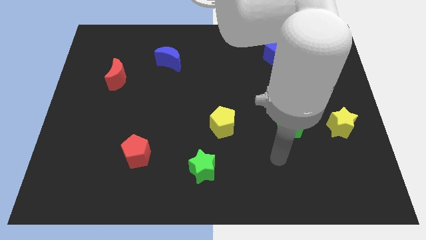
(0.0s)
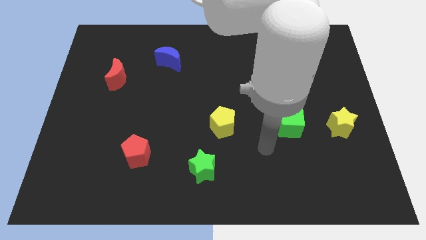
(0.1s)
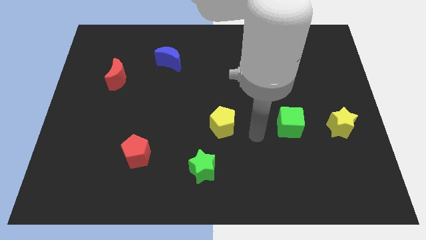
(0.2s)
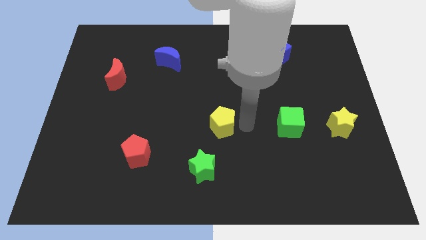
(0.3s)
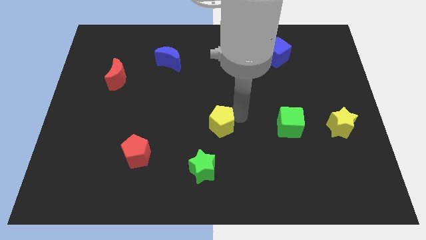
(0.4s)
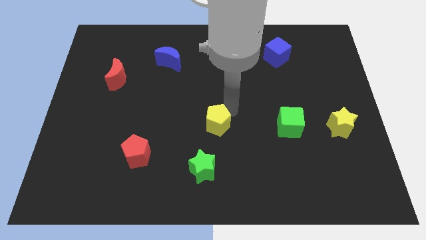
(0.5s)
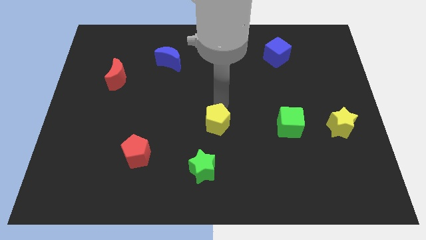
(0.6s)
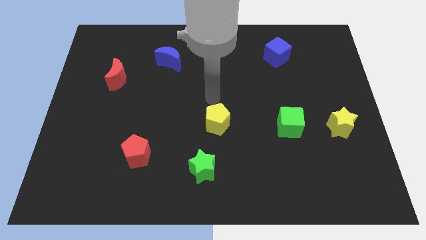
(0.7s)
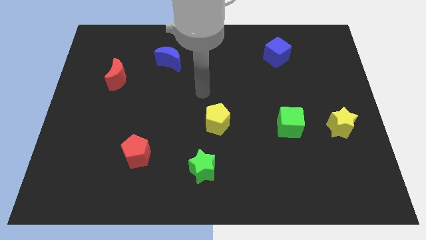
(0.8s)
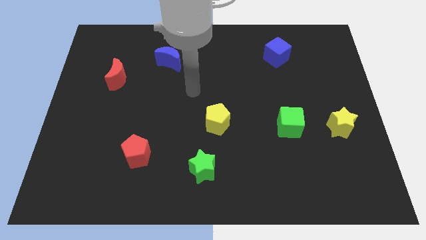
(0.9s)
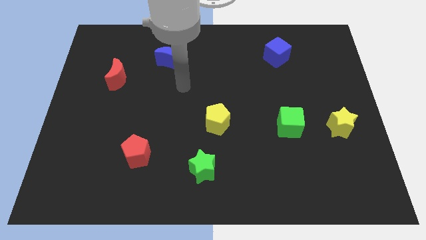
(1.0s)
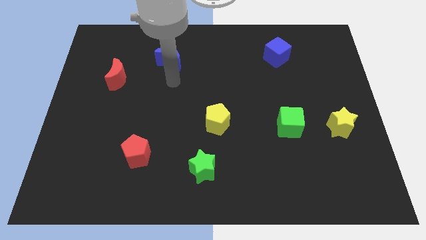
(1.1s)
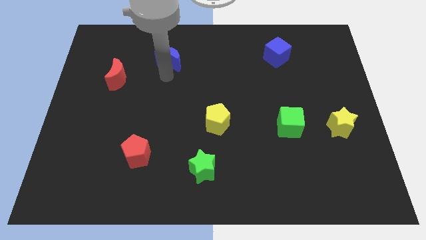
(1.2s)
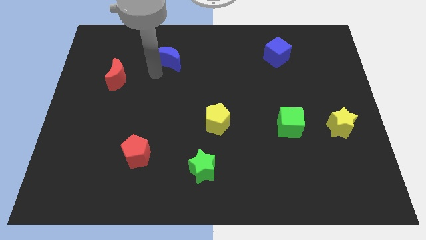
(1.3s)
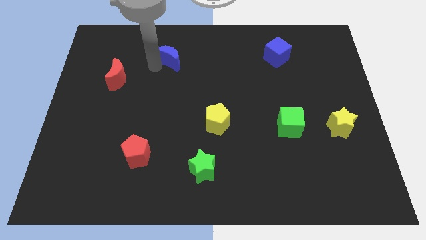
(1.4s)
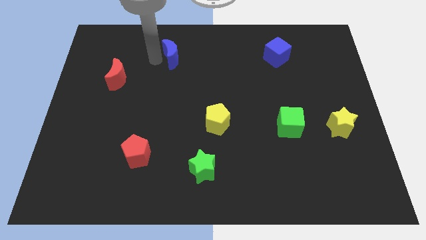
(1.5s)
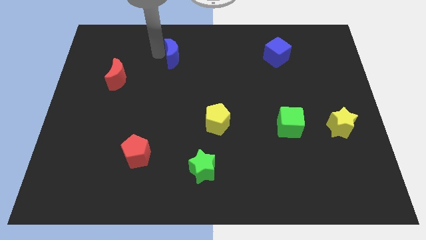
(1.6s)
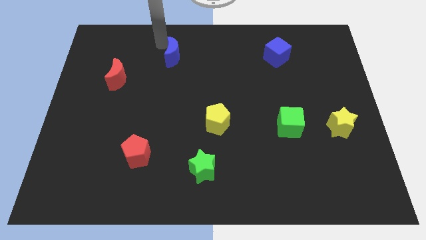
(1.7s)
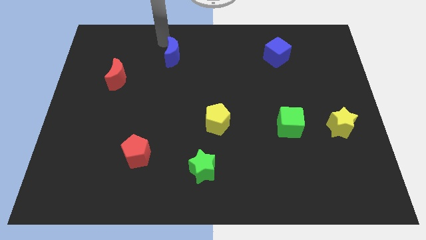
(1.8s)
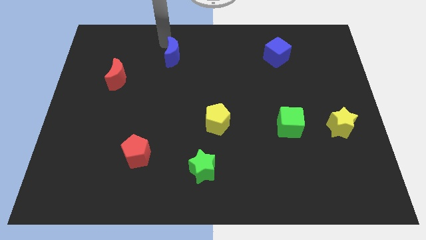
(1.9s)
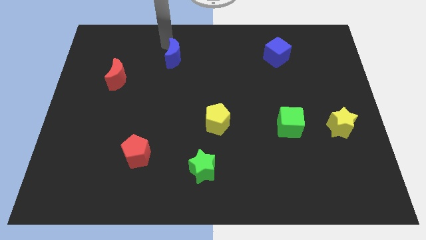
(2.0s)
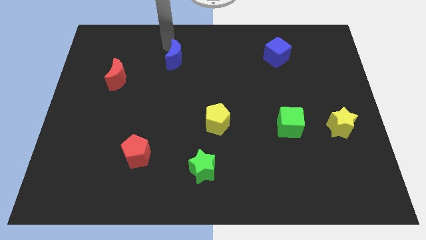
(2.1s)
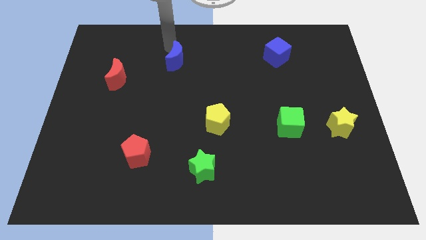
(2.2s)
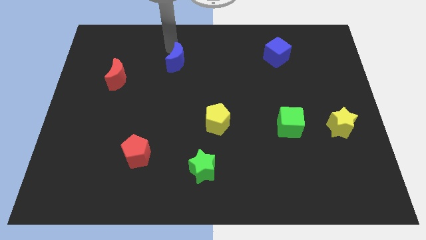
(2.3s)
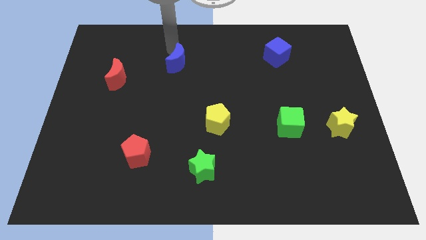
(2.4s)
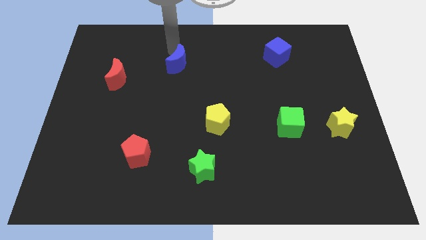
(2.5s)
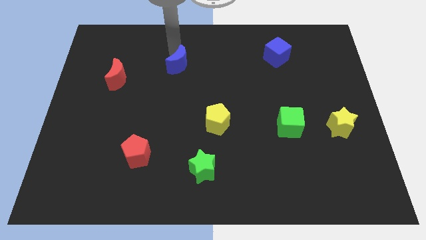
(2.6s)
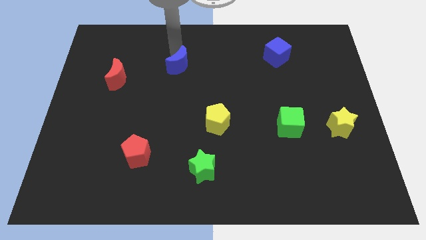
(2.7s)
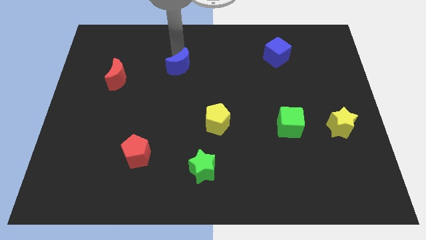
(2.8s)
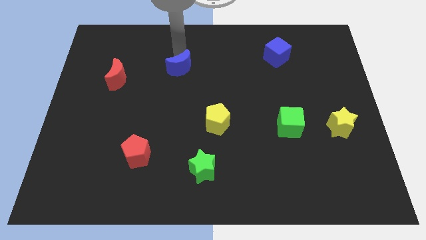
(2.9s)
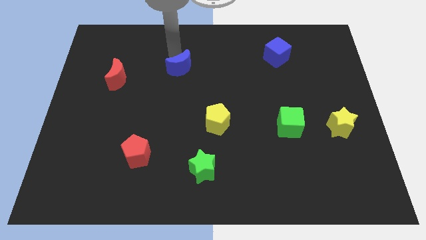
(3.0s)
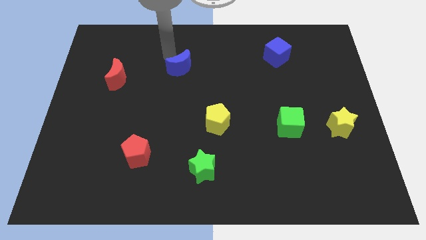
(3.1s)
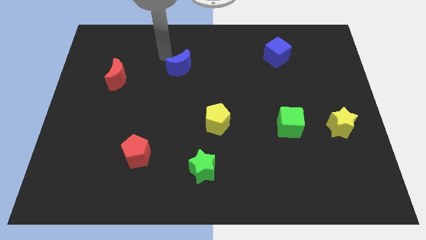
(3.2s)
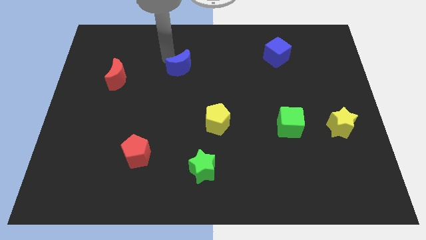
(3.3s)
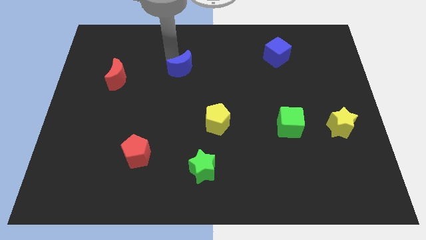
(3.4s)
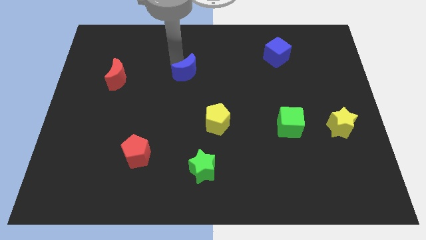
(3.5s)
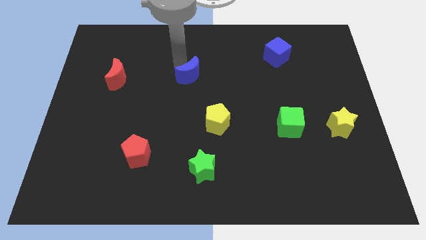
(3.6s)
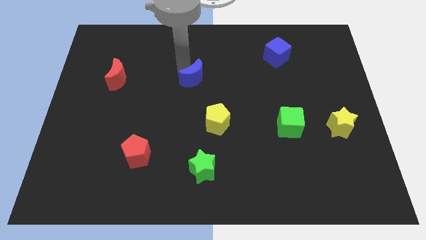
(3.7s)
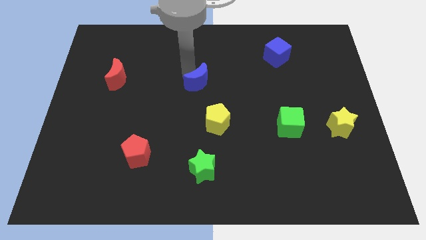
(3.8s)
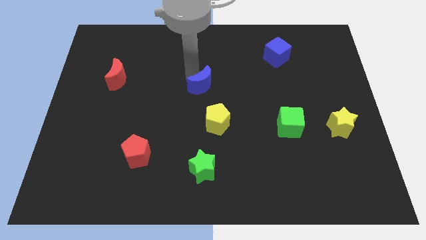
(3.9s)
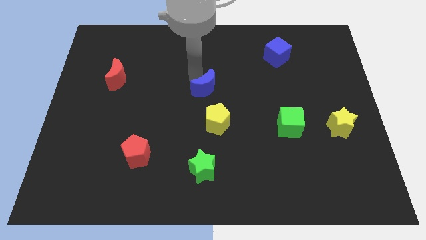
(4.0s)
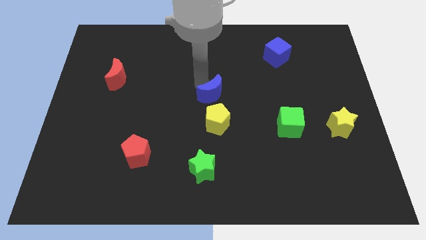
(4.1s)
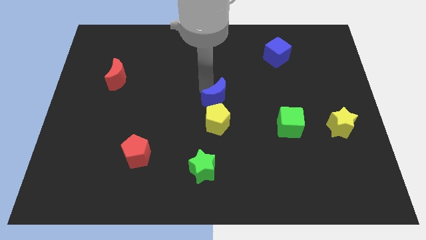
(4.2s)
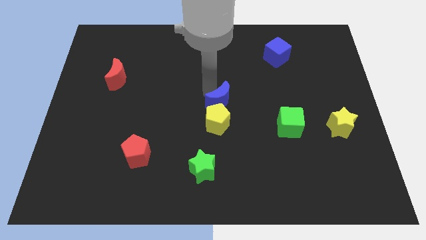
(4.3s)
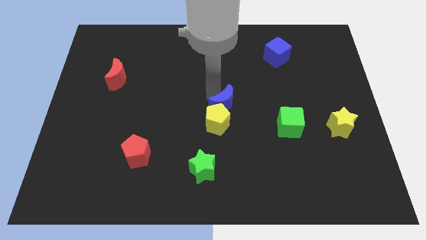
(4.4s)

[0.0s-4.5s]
slide the blue moon downwards and right diagonally

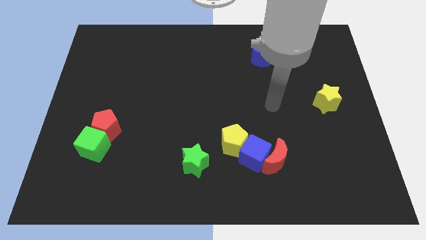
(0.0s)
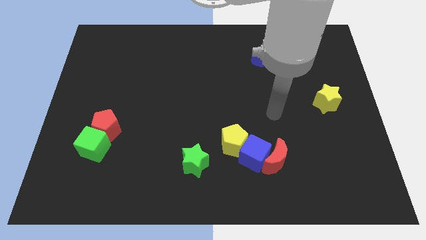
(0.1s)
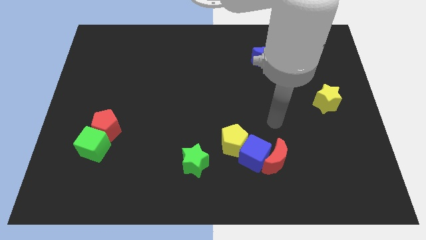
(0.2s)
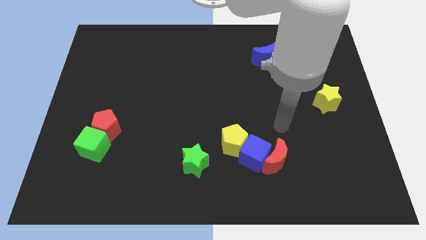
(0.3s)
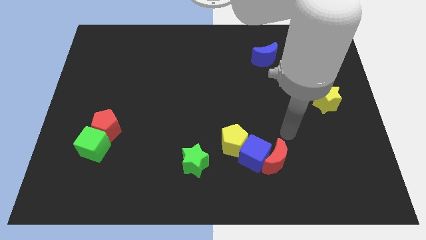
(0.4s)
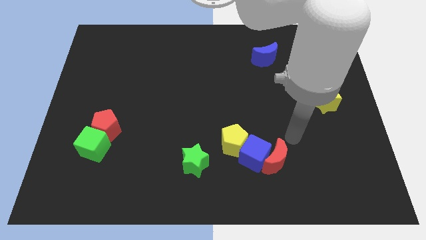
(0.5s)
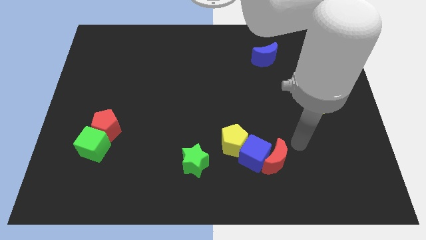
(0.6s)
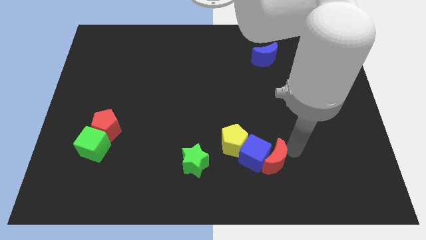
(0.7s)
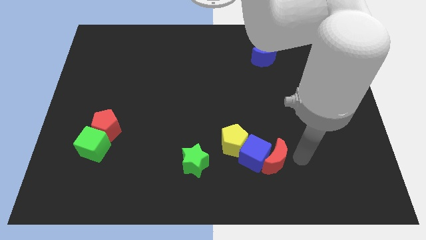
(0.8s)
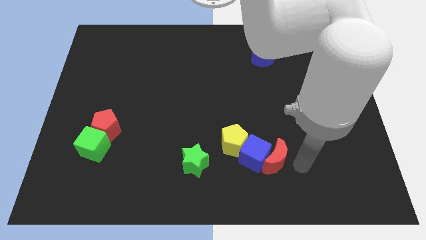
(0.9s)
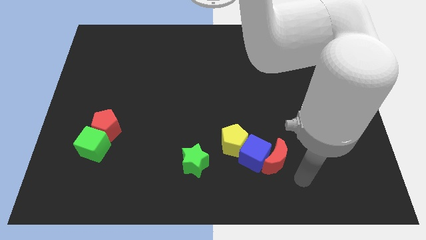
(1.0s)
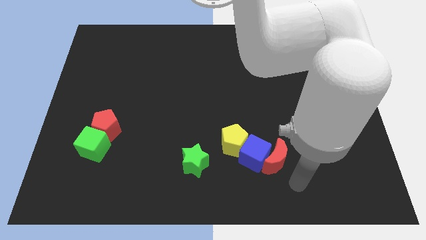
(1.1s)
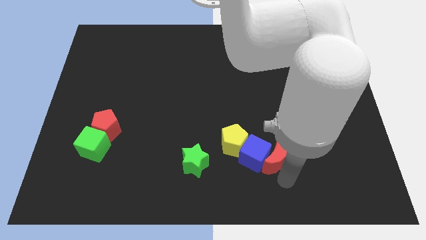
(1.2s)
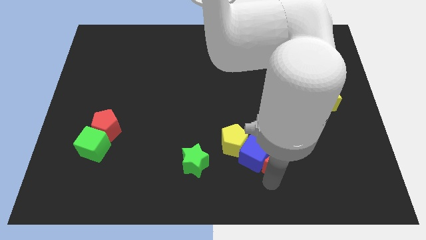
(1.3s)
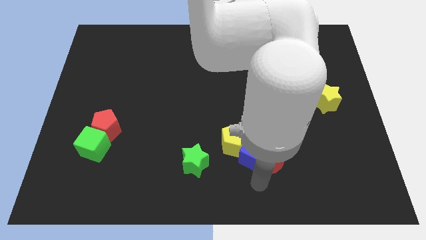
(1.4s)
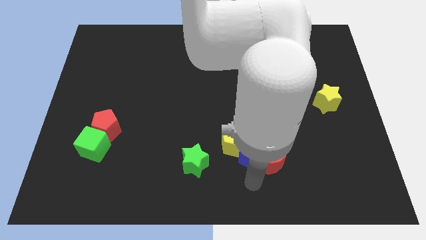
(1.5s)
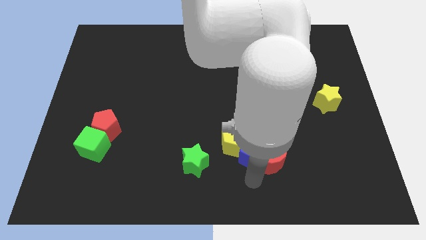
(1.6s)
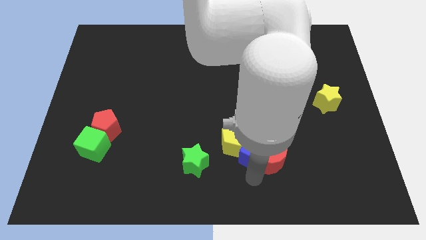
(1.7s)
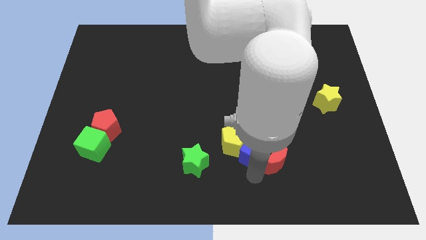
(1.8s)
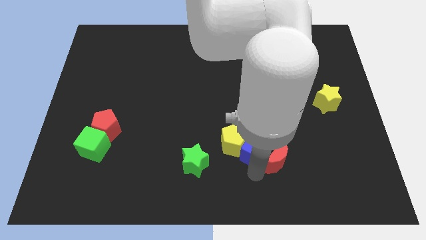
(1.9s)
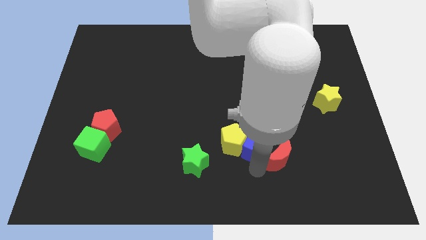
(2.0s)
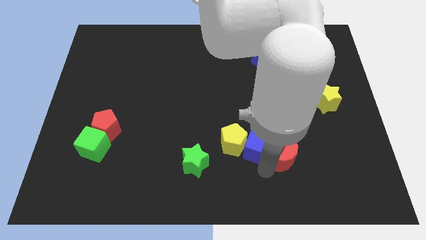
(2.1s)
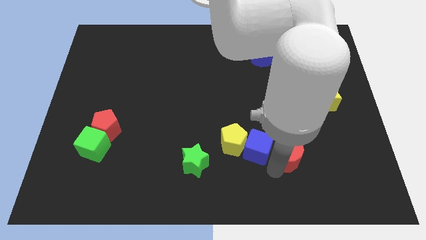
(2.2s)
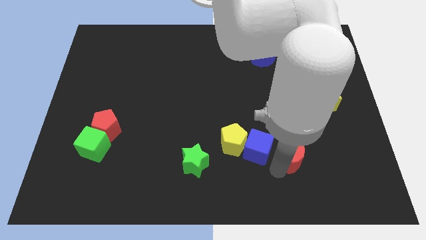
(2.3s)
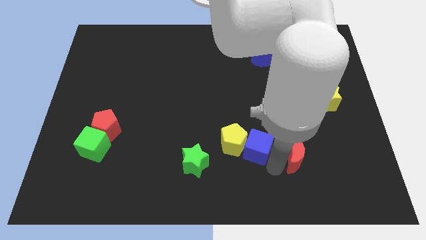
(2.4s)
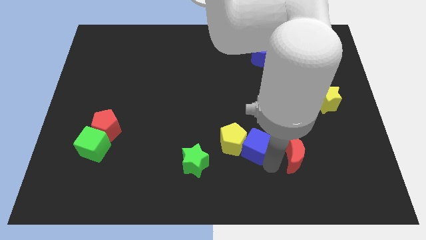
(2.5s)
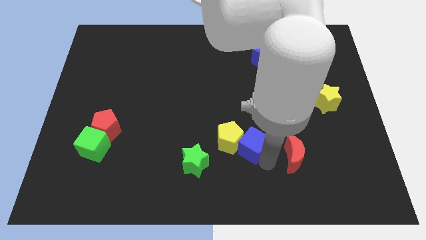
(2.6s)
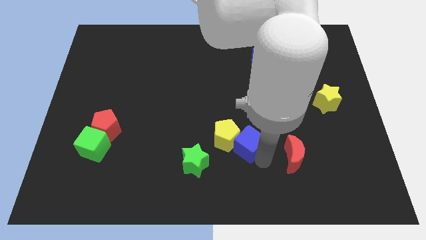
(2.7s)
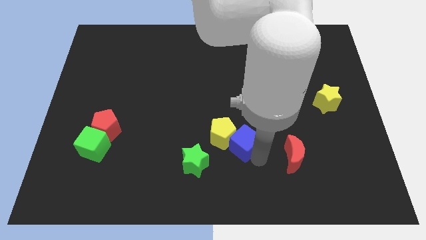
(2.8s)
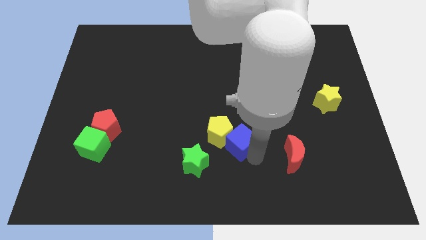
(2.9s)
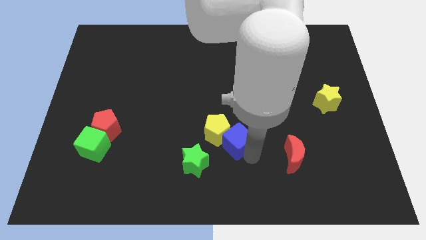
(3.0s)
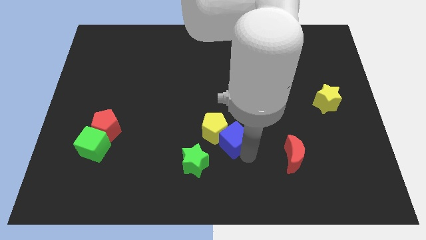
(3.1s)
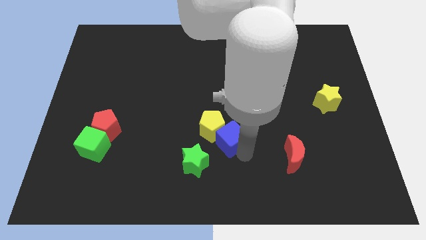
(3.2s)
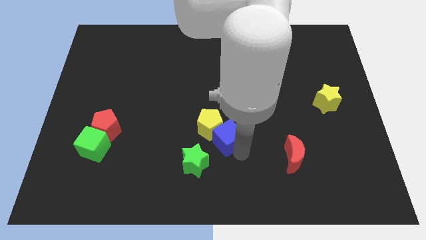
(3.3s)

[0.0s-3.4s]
slightly slide the blue cube upwards and to the left diagonally

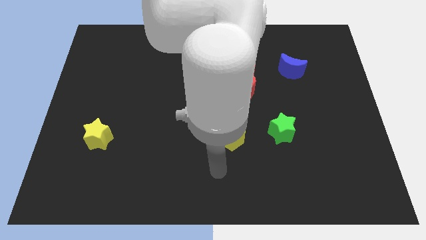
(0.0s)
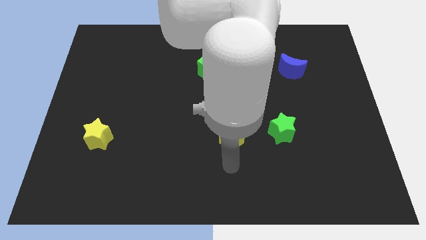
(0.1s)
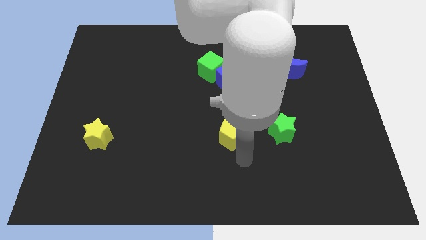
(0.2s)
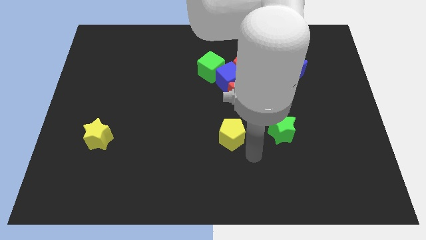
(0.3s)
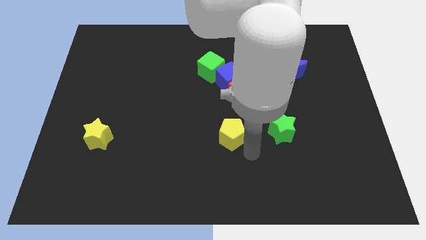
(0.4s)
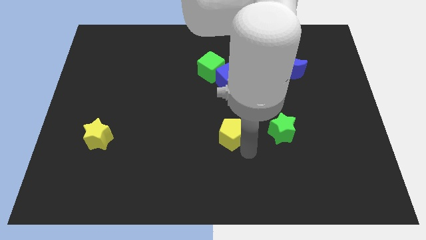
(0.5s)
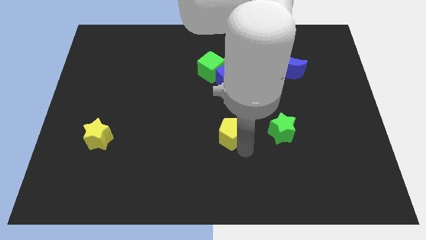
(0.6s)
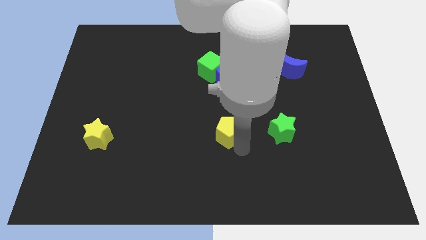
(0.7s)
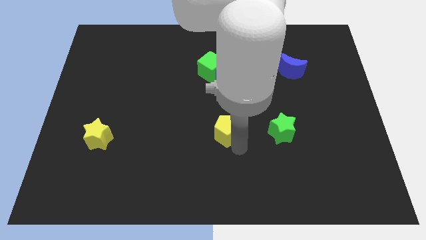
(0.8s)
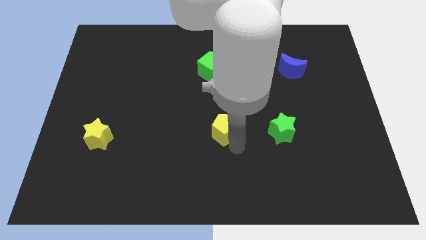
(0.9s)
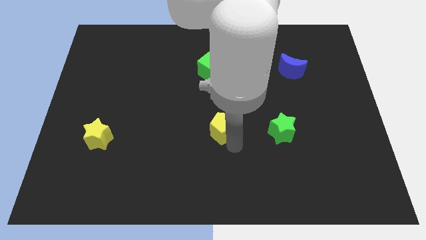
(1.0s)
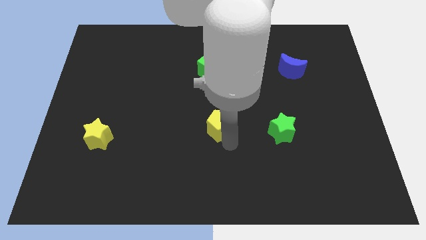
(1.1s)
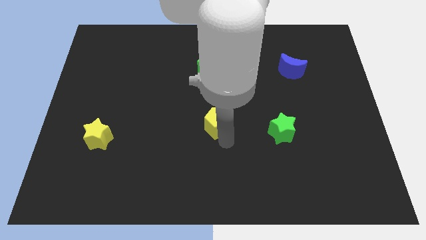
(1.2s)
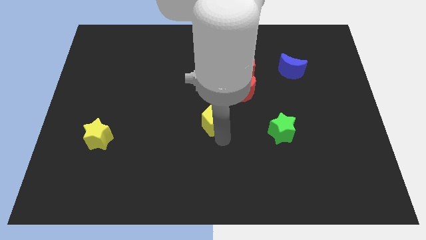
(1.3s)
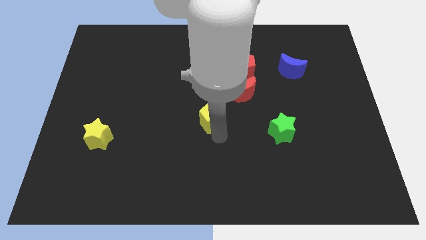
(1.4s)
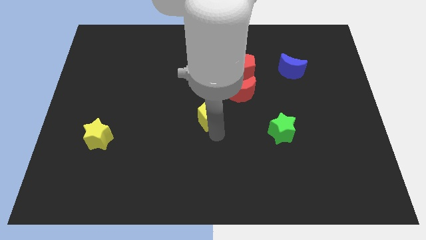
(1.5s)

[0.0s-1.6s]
slide the yellow pentagon slightly up and then to the left
